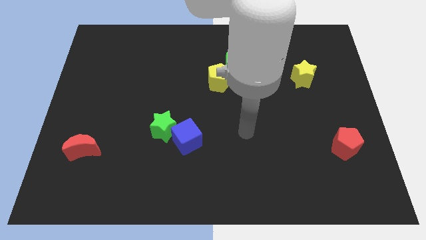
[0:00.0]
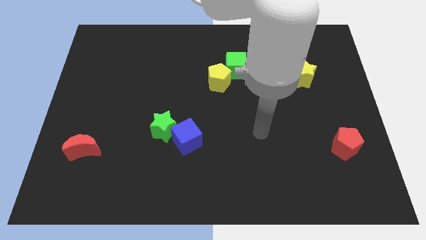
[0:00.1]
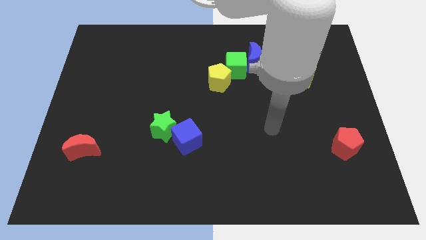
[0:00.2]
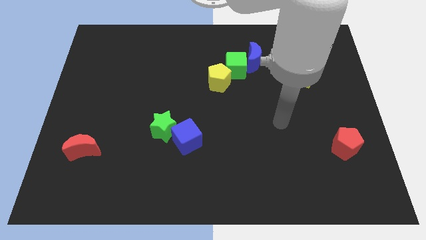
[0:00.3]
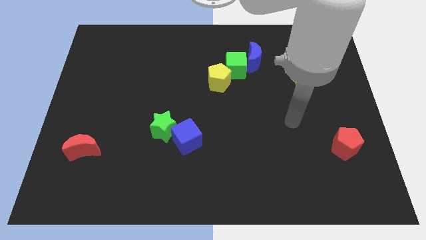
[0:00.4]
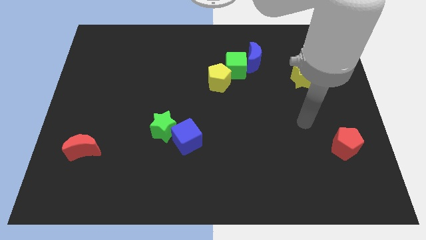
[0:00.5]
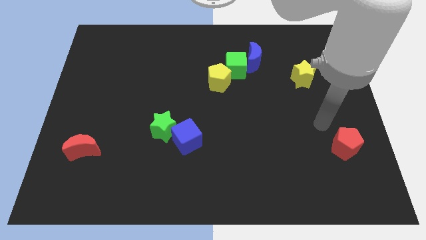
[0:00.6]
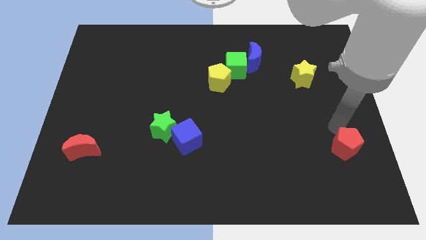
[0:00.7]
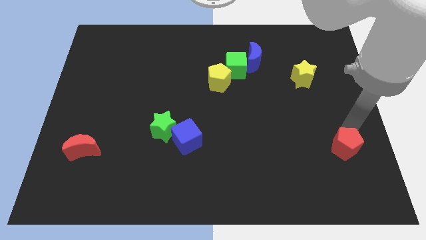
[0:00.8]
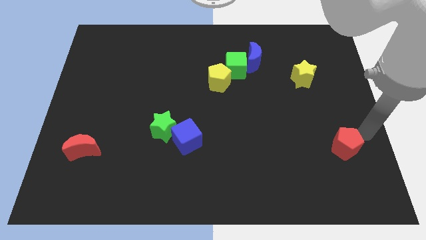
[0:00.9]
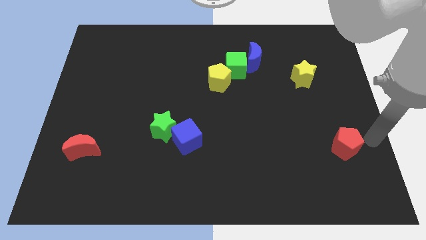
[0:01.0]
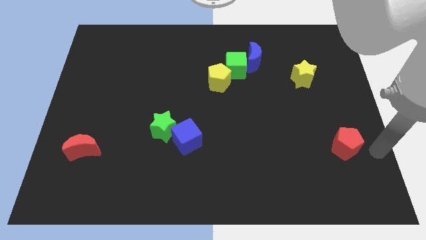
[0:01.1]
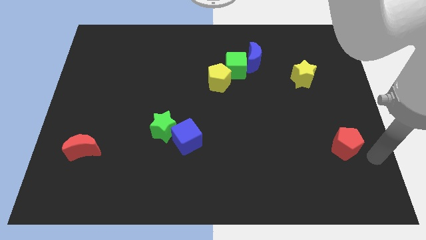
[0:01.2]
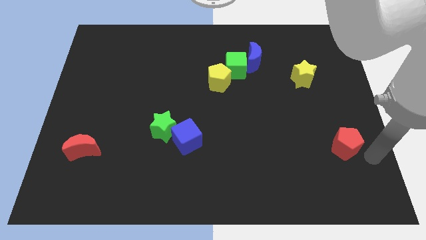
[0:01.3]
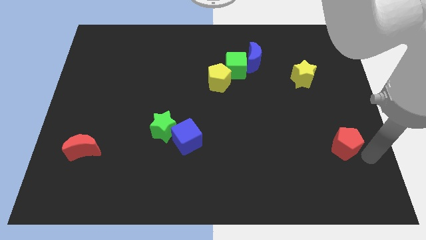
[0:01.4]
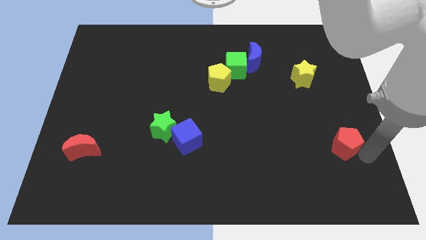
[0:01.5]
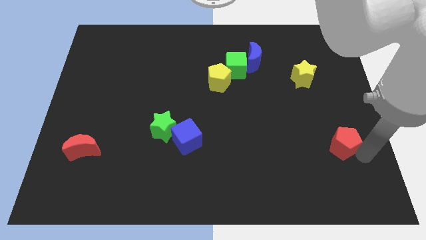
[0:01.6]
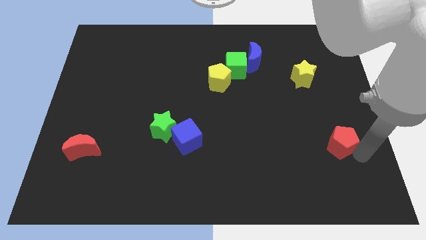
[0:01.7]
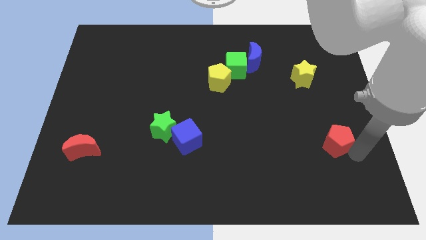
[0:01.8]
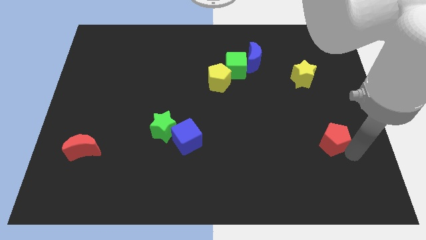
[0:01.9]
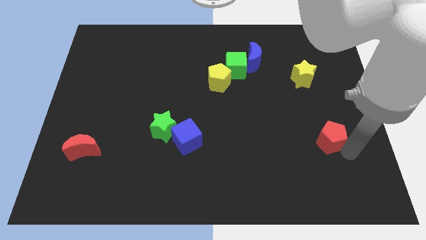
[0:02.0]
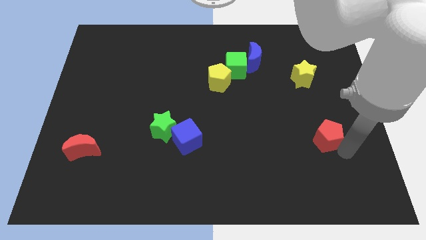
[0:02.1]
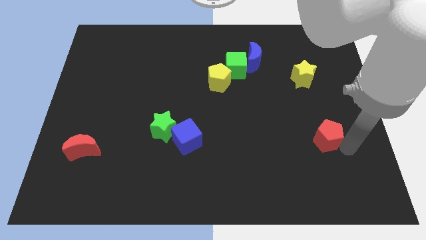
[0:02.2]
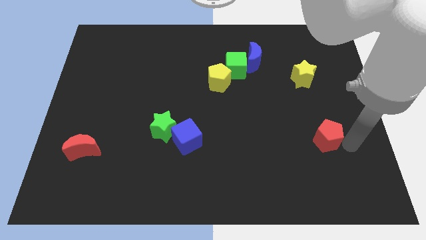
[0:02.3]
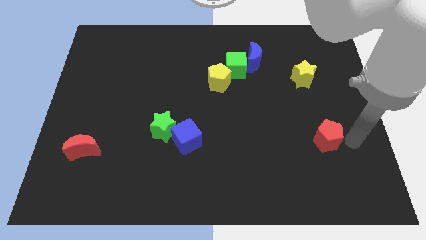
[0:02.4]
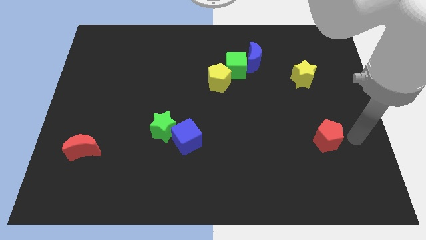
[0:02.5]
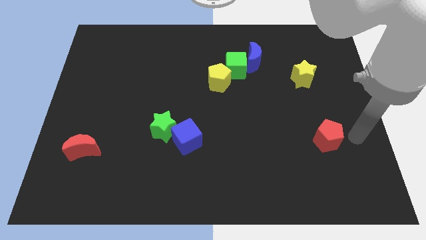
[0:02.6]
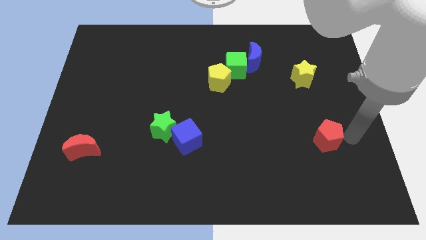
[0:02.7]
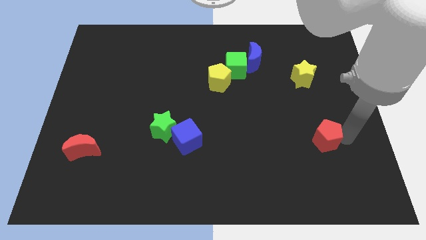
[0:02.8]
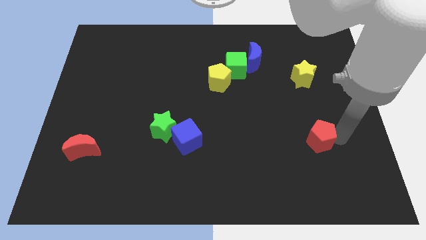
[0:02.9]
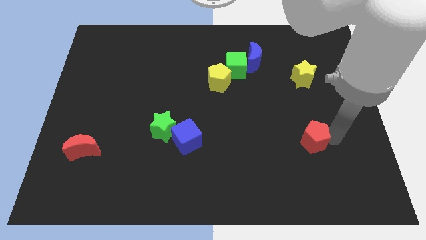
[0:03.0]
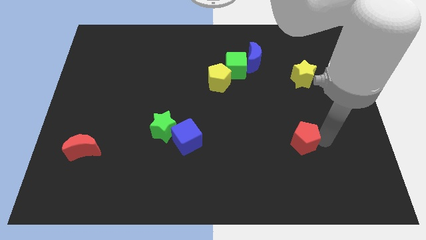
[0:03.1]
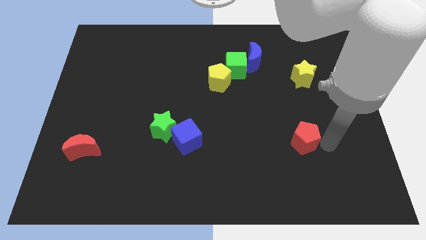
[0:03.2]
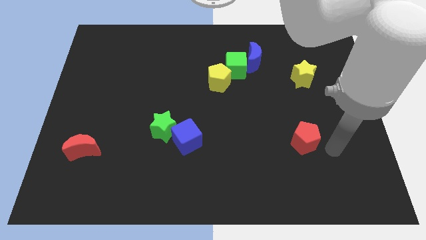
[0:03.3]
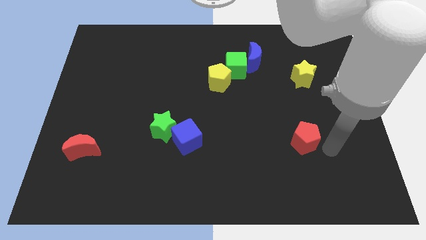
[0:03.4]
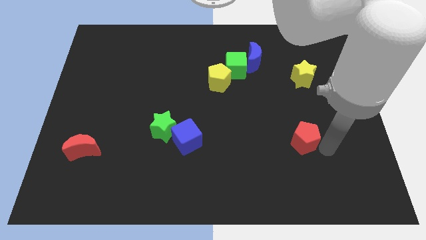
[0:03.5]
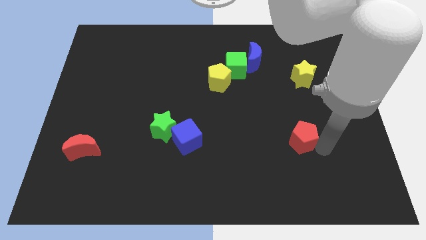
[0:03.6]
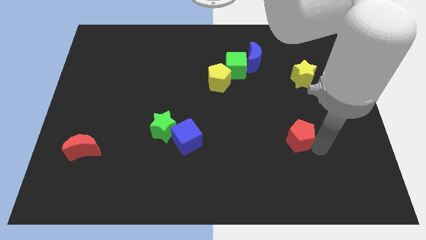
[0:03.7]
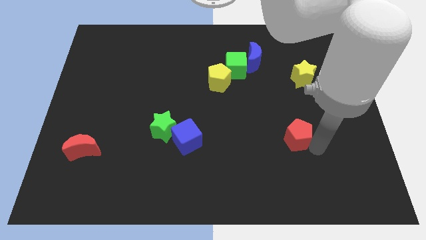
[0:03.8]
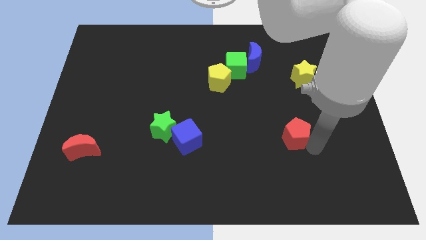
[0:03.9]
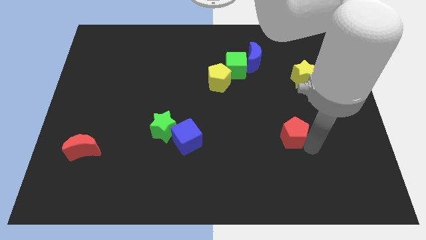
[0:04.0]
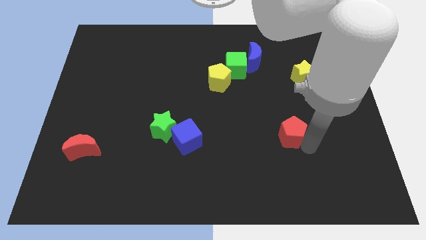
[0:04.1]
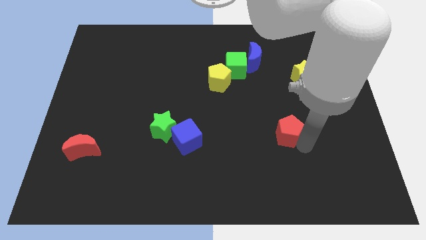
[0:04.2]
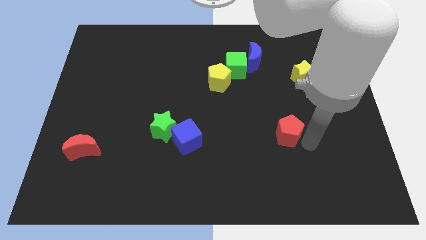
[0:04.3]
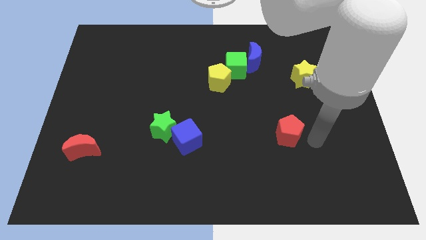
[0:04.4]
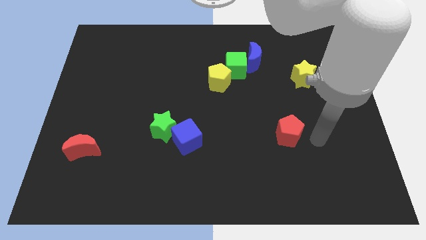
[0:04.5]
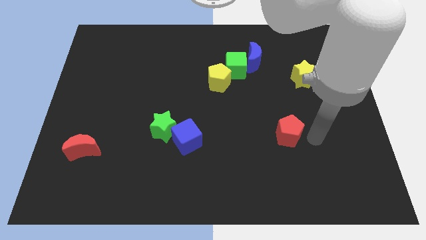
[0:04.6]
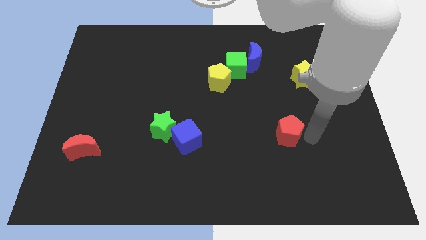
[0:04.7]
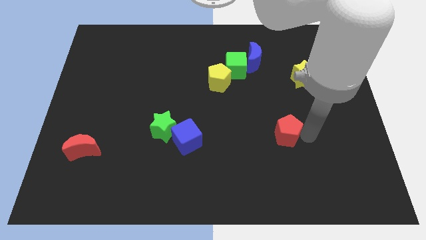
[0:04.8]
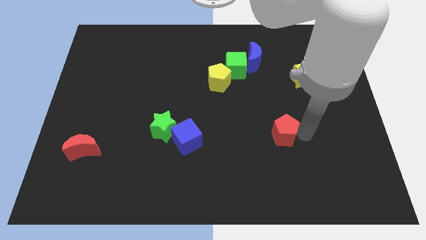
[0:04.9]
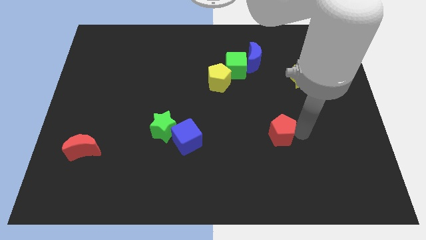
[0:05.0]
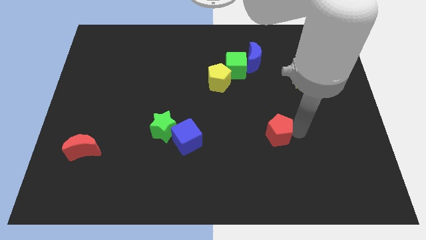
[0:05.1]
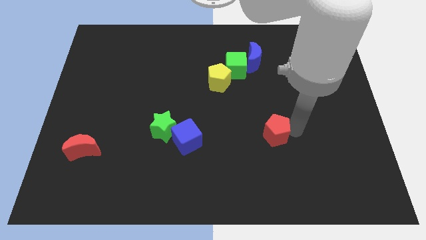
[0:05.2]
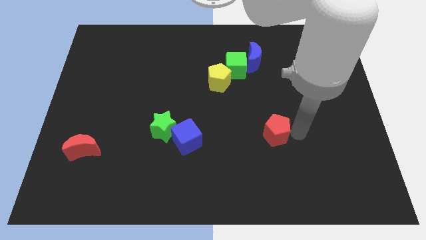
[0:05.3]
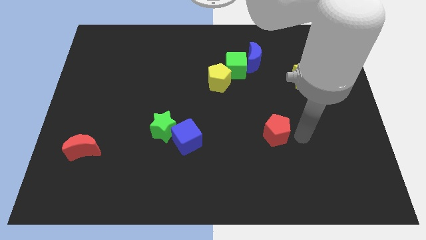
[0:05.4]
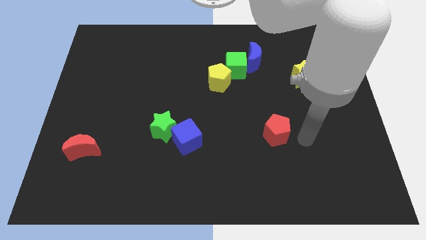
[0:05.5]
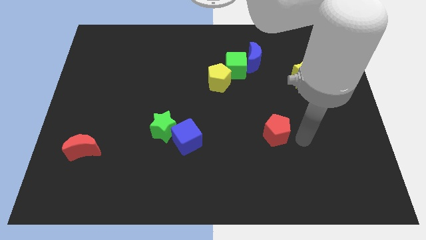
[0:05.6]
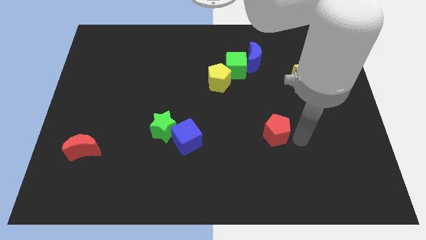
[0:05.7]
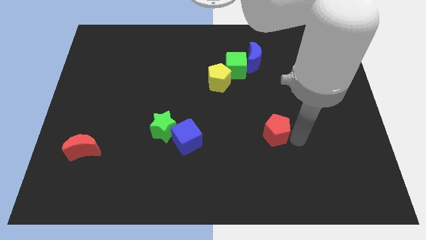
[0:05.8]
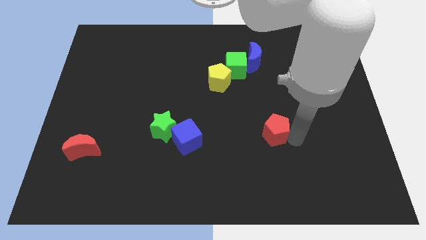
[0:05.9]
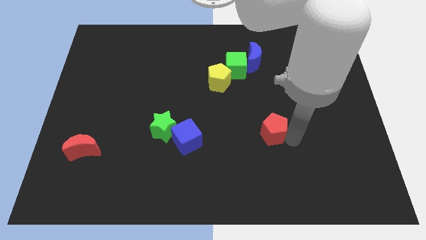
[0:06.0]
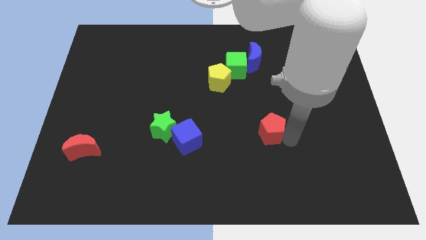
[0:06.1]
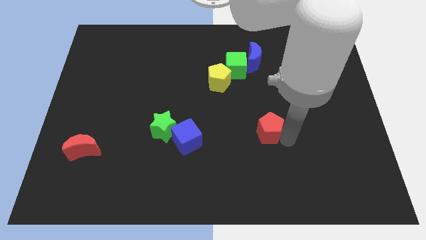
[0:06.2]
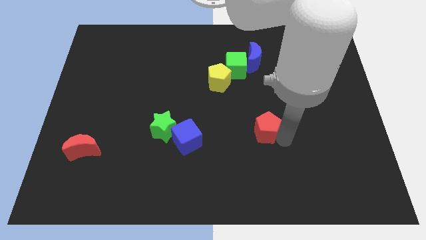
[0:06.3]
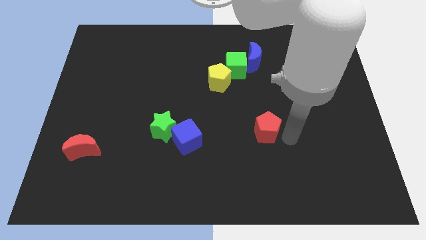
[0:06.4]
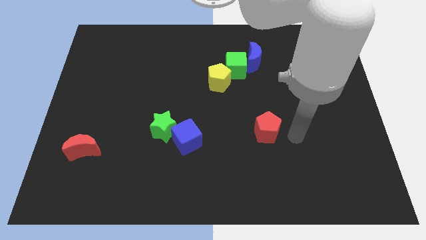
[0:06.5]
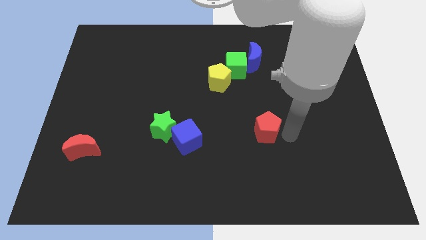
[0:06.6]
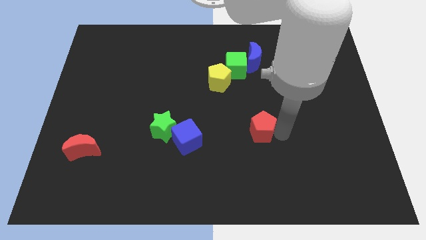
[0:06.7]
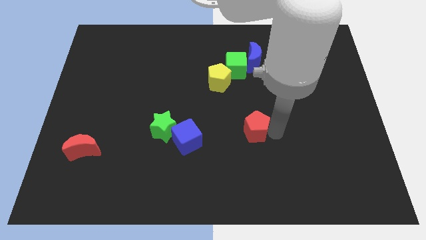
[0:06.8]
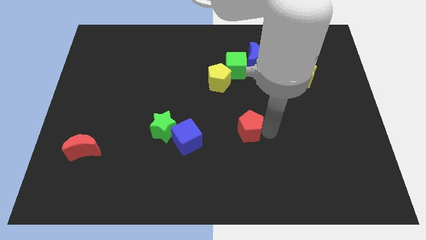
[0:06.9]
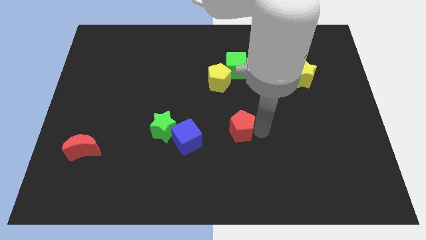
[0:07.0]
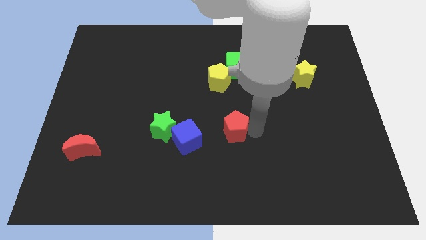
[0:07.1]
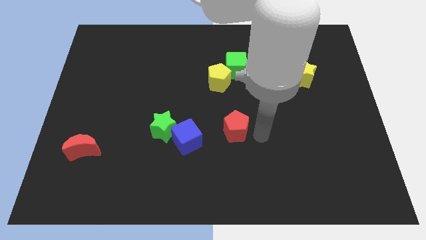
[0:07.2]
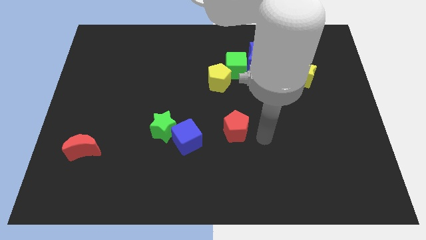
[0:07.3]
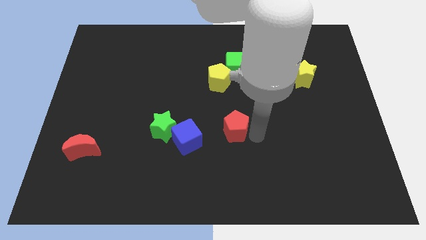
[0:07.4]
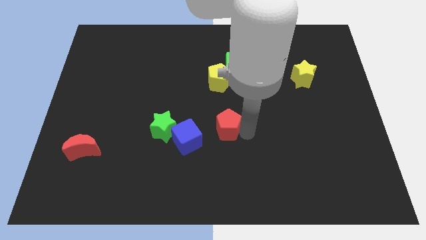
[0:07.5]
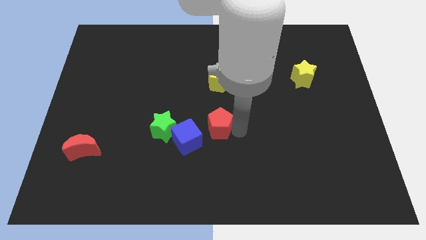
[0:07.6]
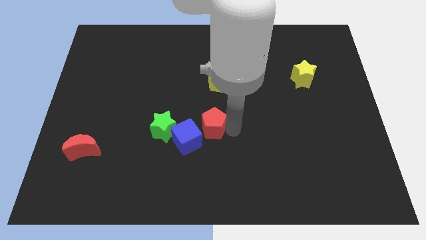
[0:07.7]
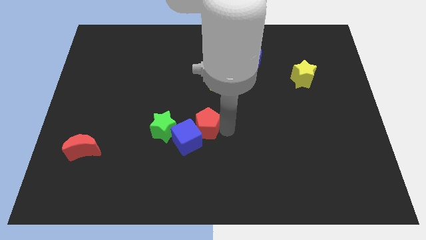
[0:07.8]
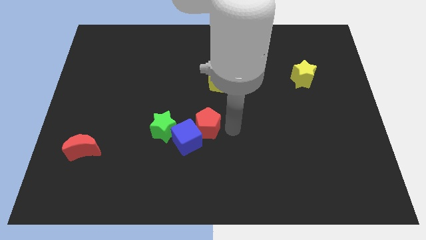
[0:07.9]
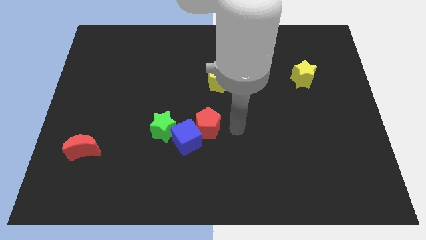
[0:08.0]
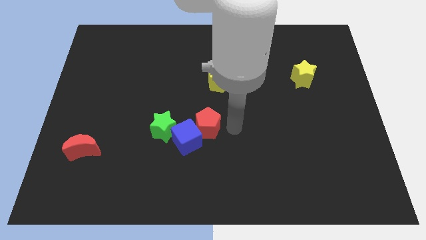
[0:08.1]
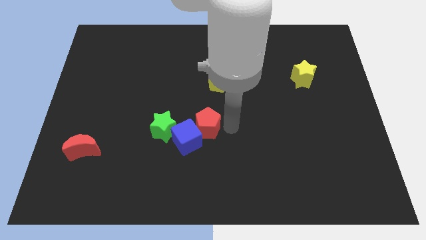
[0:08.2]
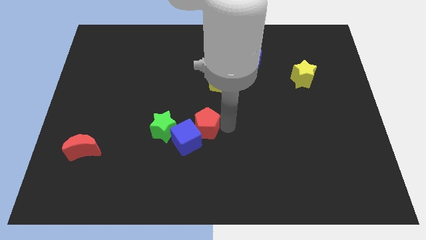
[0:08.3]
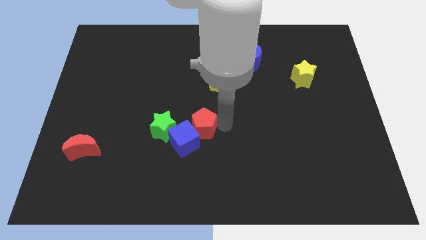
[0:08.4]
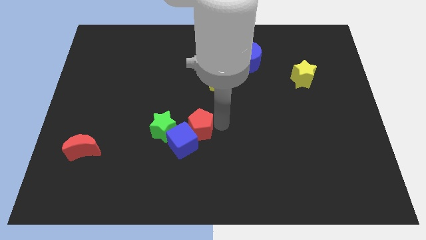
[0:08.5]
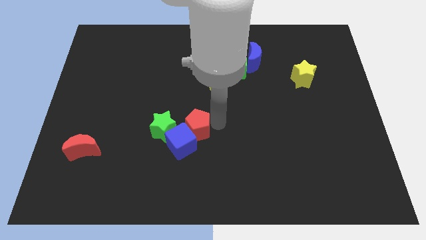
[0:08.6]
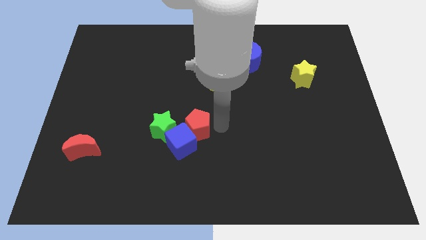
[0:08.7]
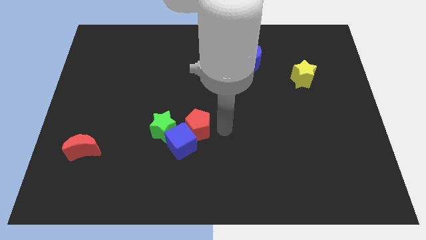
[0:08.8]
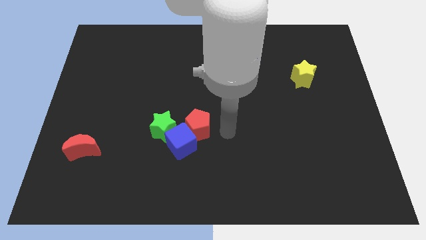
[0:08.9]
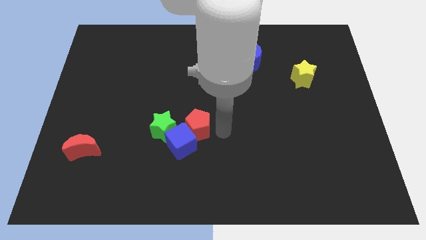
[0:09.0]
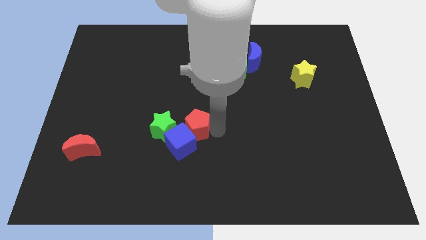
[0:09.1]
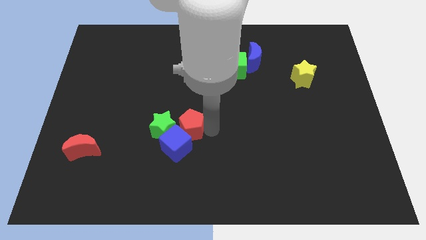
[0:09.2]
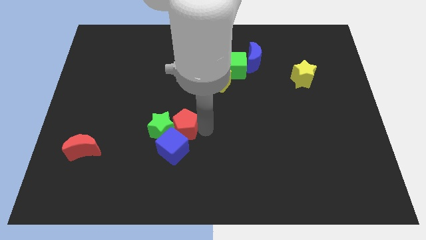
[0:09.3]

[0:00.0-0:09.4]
put the red pentagon next to the green star
